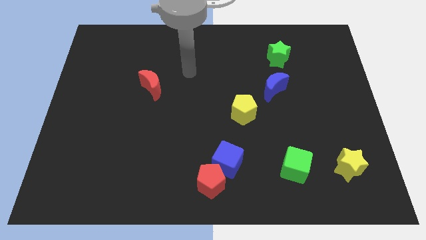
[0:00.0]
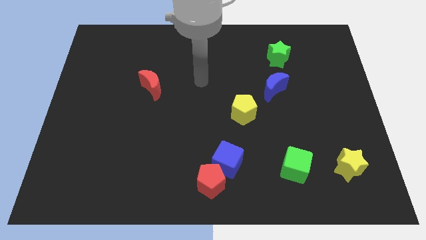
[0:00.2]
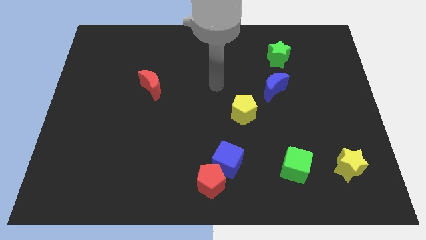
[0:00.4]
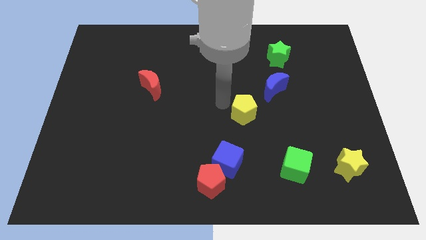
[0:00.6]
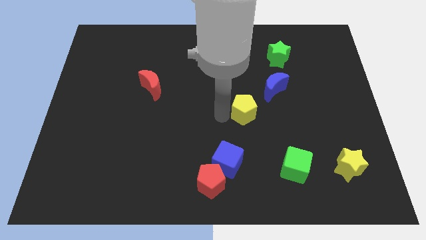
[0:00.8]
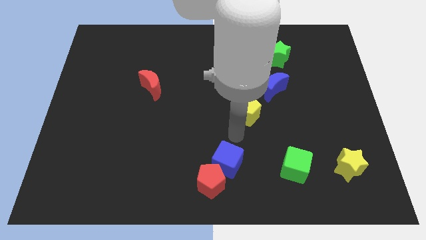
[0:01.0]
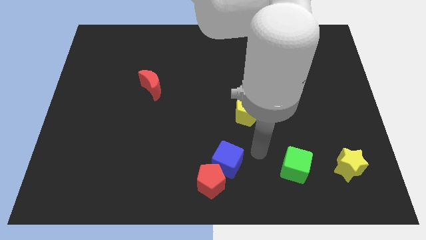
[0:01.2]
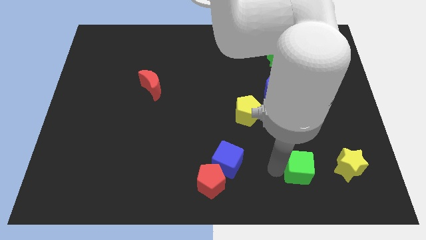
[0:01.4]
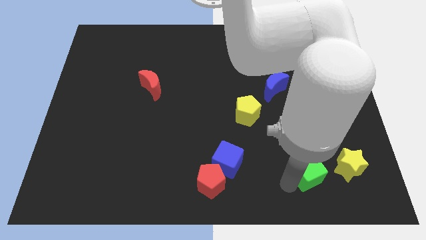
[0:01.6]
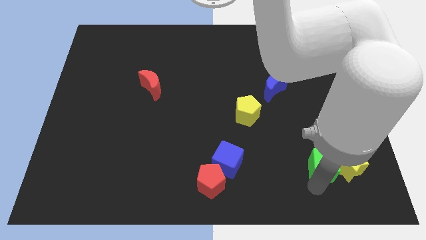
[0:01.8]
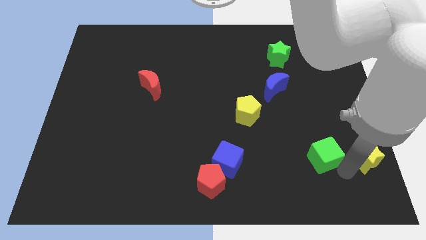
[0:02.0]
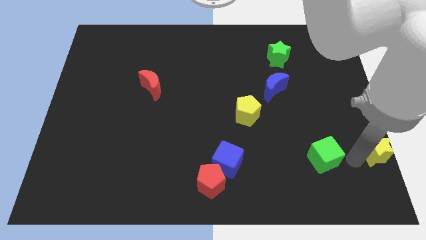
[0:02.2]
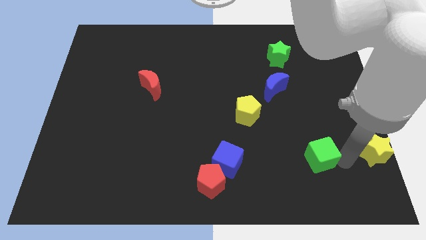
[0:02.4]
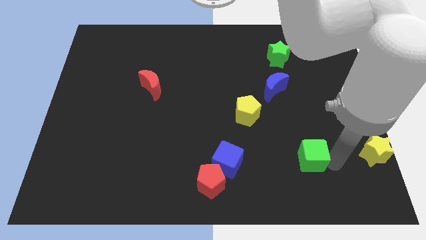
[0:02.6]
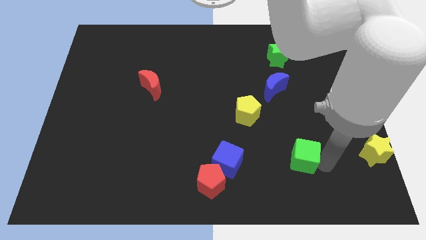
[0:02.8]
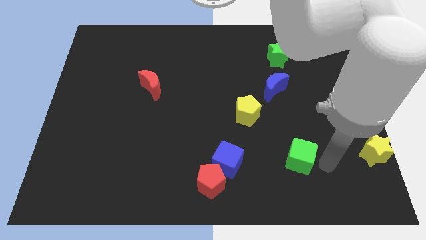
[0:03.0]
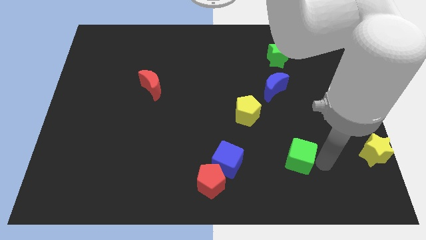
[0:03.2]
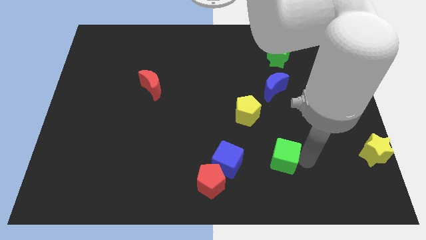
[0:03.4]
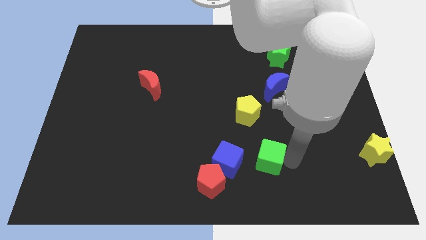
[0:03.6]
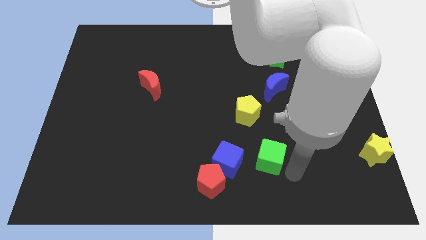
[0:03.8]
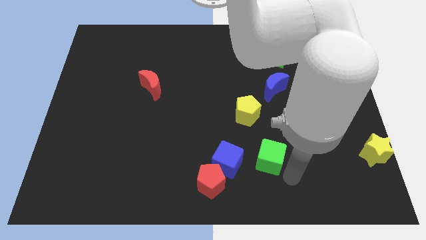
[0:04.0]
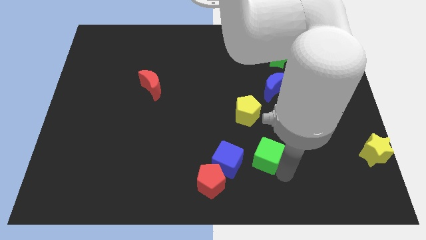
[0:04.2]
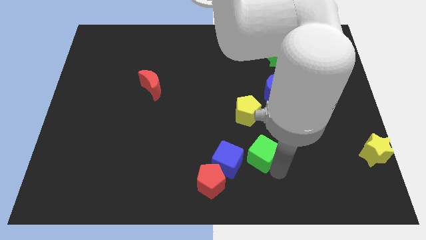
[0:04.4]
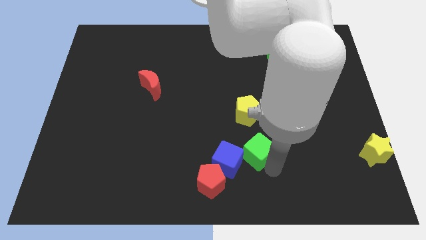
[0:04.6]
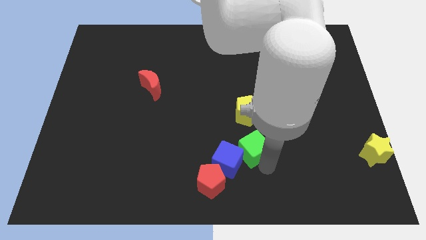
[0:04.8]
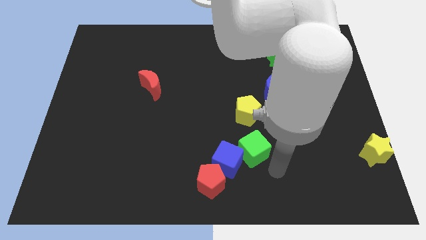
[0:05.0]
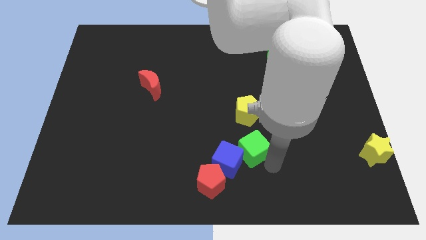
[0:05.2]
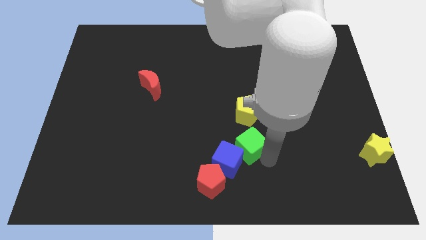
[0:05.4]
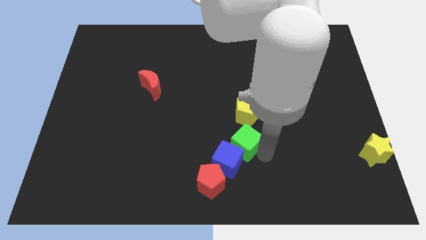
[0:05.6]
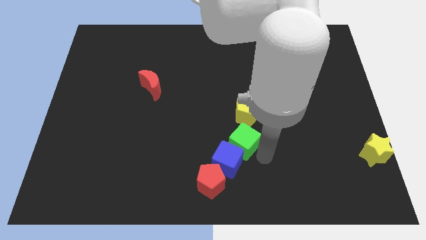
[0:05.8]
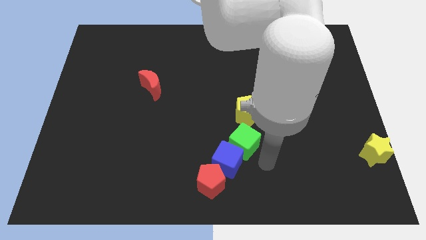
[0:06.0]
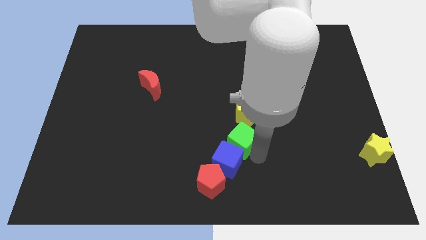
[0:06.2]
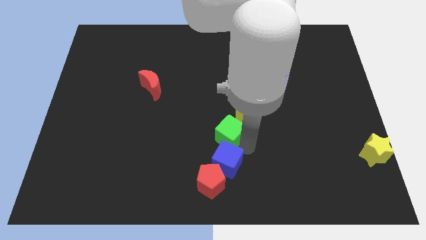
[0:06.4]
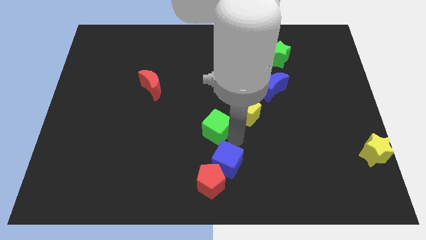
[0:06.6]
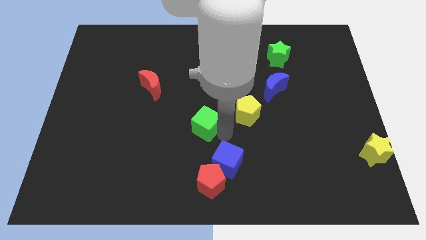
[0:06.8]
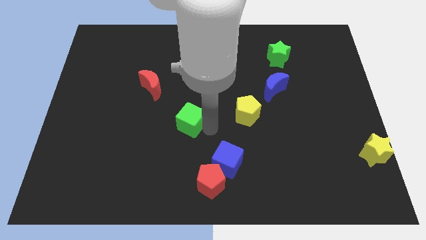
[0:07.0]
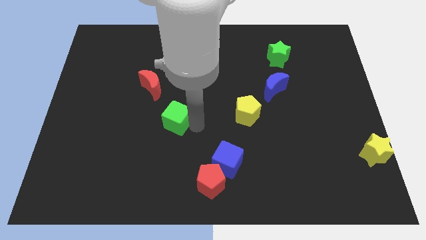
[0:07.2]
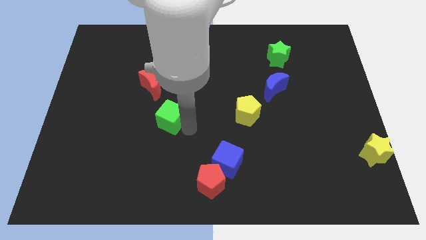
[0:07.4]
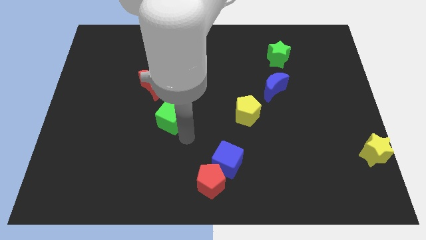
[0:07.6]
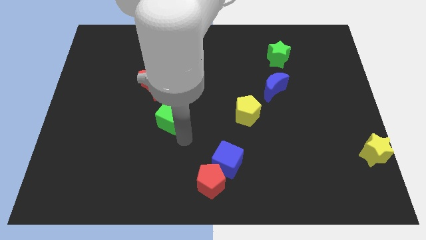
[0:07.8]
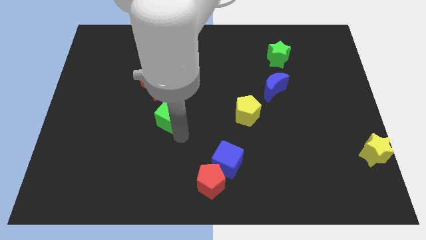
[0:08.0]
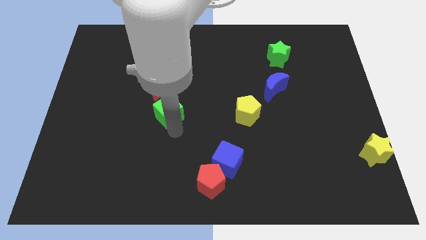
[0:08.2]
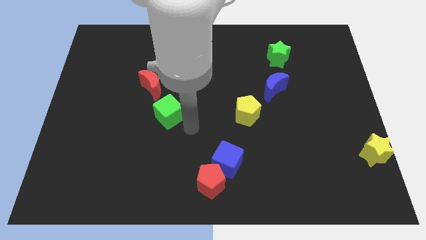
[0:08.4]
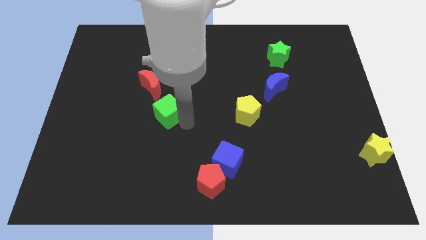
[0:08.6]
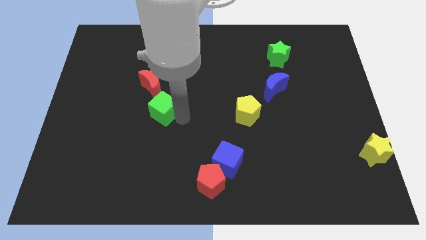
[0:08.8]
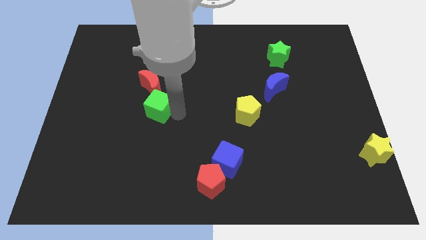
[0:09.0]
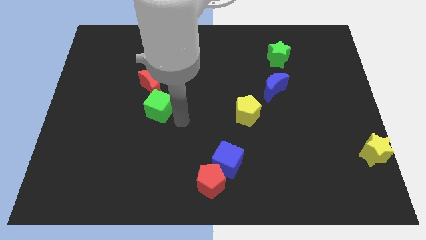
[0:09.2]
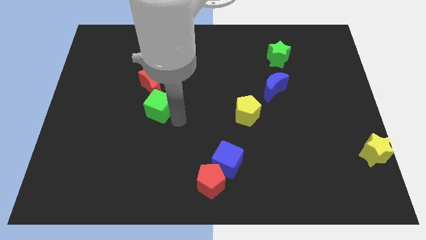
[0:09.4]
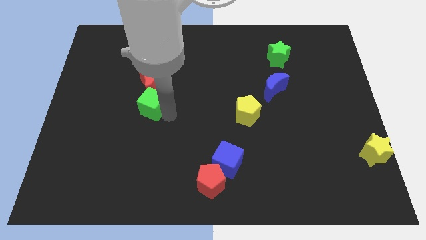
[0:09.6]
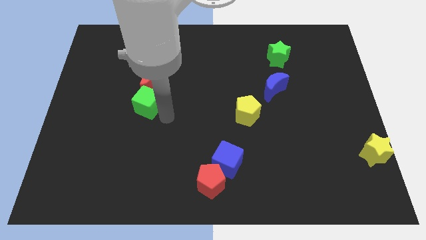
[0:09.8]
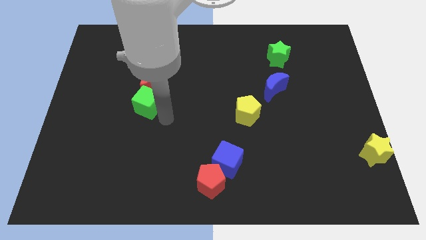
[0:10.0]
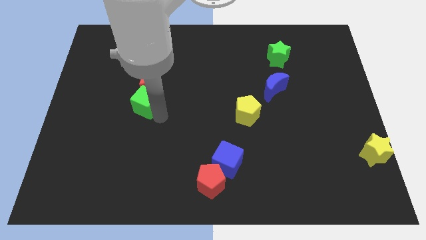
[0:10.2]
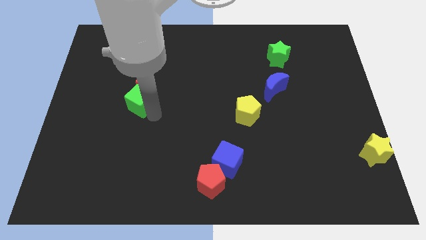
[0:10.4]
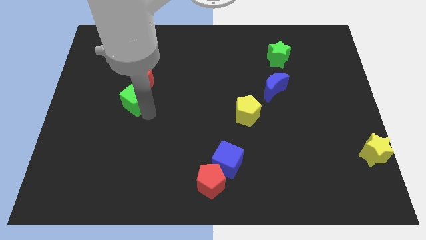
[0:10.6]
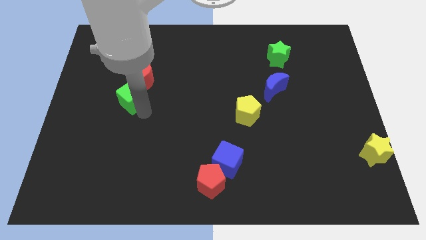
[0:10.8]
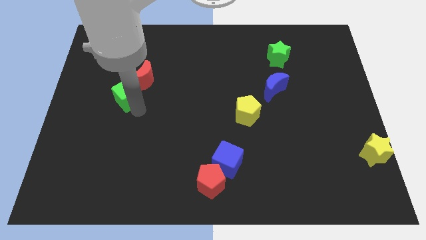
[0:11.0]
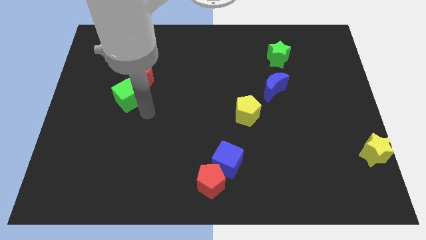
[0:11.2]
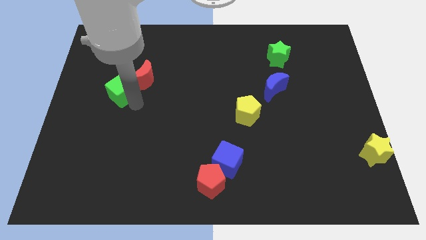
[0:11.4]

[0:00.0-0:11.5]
put the green cube left of the red moon

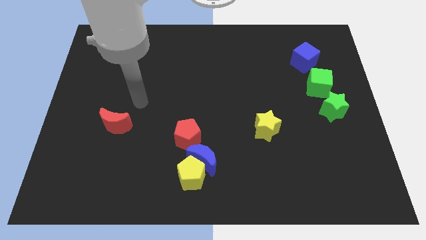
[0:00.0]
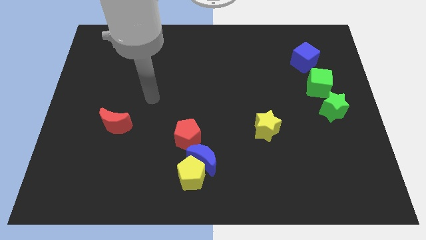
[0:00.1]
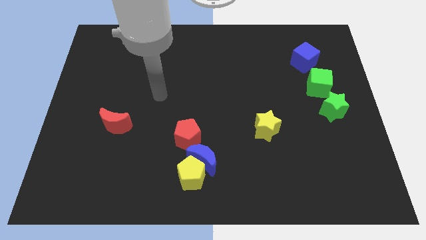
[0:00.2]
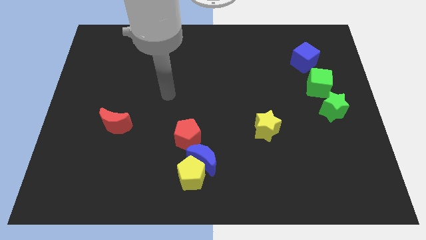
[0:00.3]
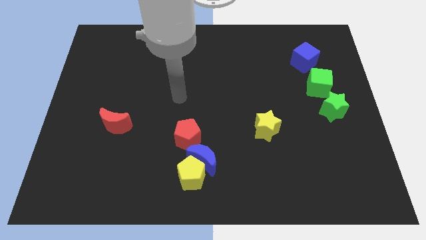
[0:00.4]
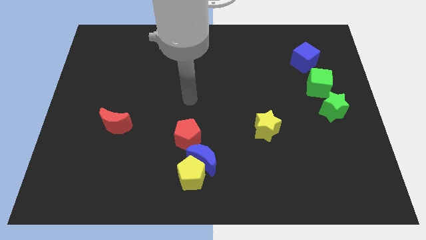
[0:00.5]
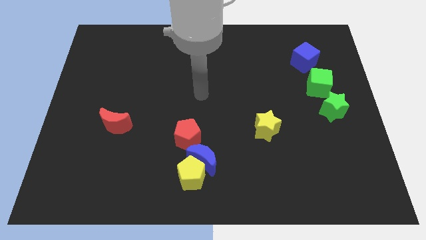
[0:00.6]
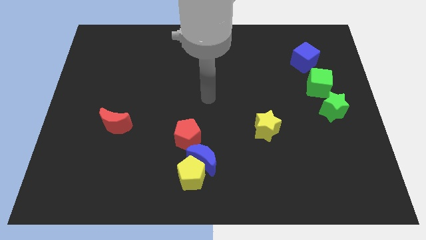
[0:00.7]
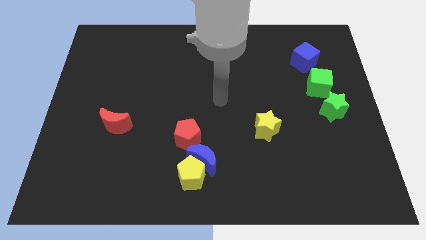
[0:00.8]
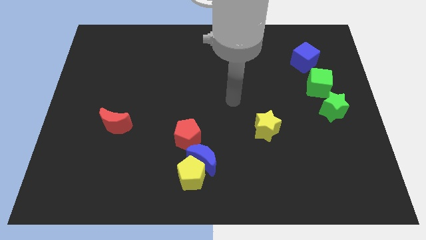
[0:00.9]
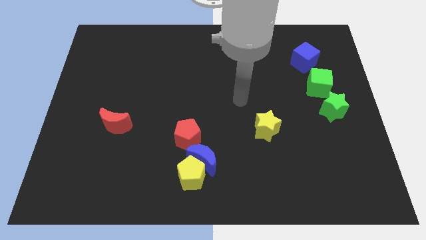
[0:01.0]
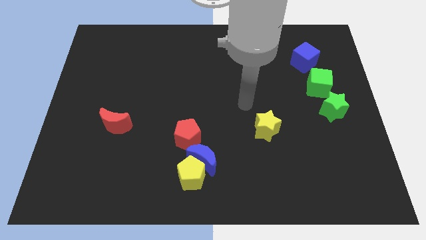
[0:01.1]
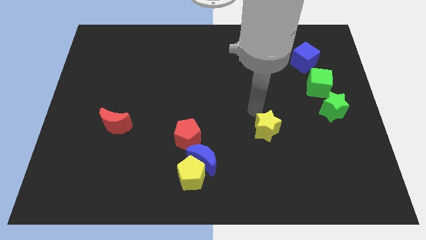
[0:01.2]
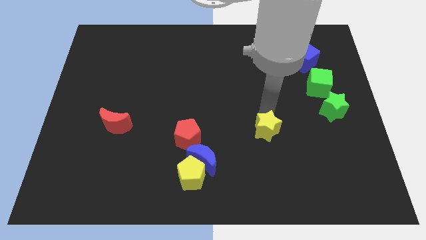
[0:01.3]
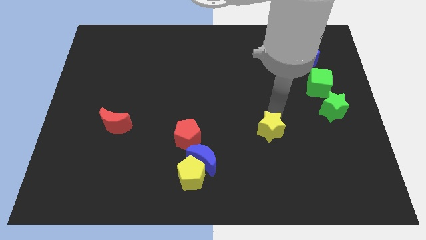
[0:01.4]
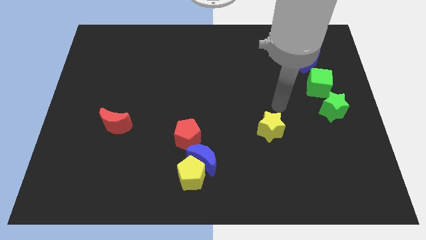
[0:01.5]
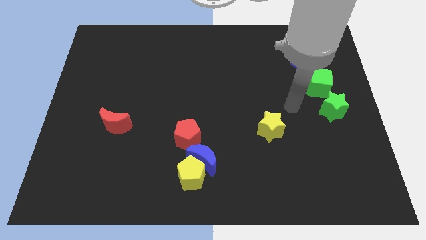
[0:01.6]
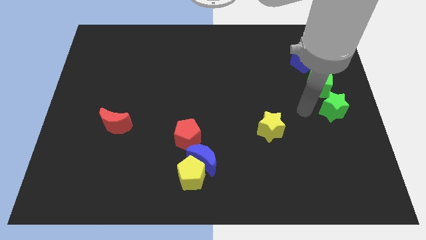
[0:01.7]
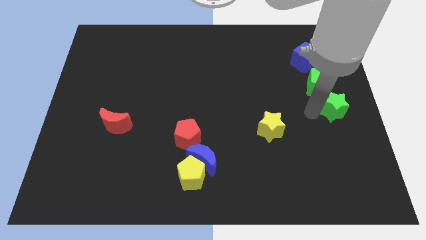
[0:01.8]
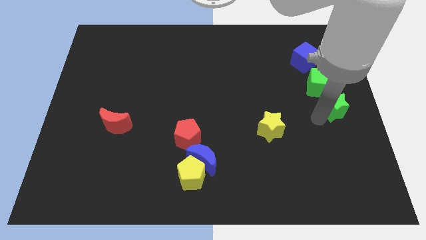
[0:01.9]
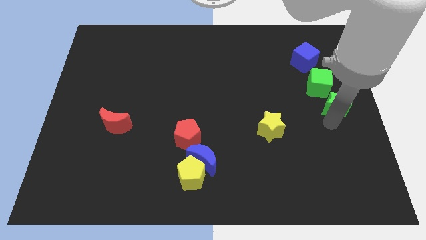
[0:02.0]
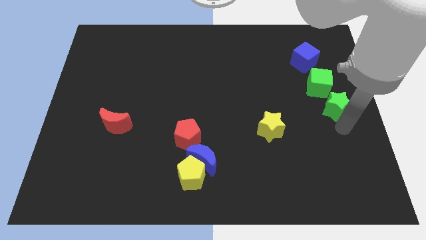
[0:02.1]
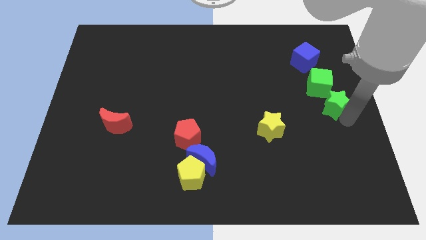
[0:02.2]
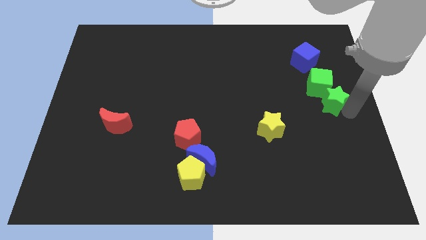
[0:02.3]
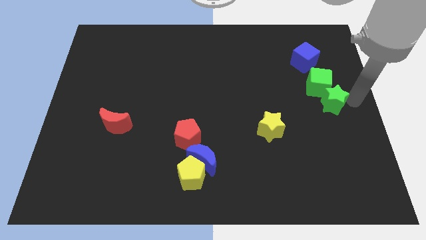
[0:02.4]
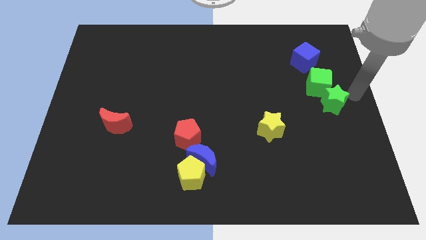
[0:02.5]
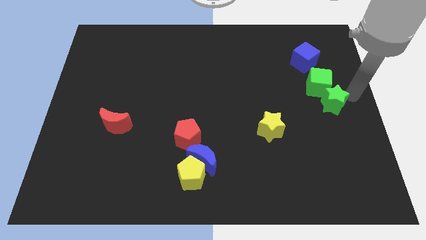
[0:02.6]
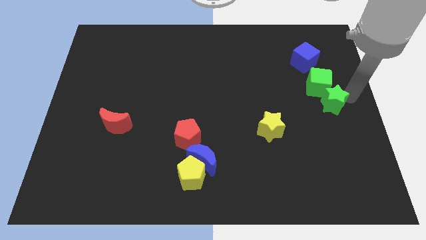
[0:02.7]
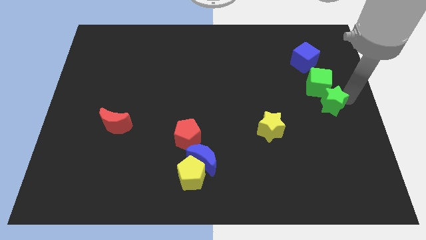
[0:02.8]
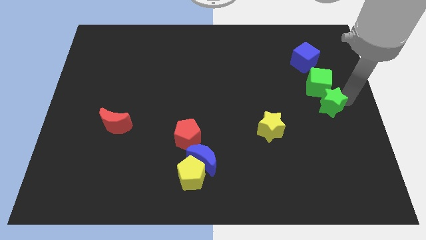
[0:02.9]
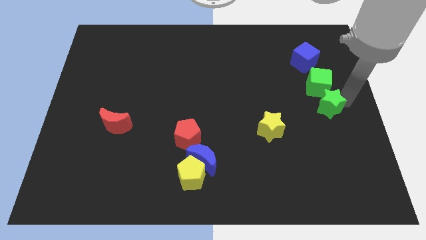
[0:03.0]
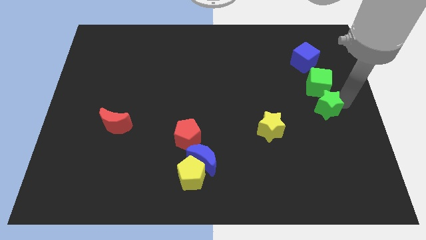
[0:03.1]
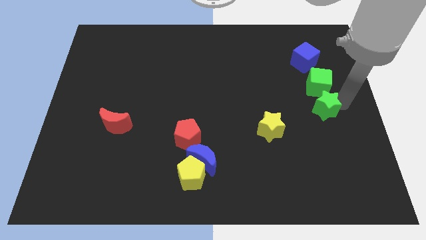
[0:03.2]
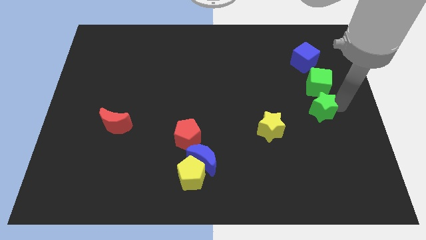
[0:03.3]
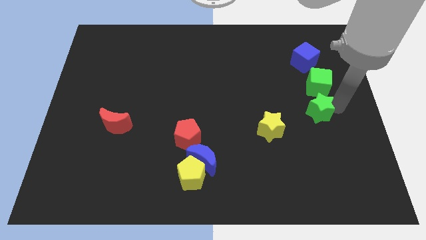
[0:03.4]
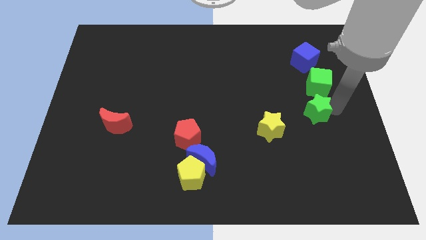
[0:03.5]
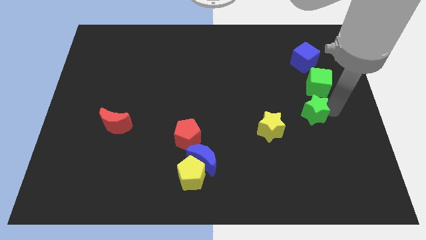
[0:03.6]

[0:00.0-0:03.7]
slide the green star diagonally up and to the right of the yellow star
